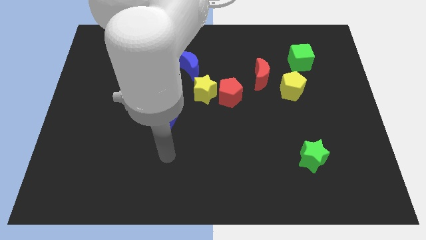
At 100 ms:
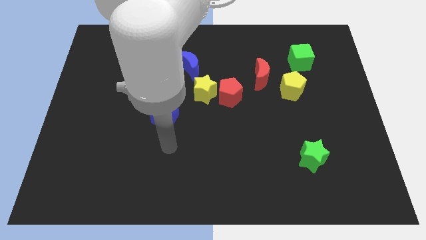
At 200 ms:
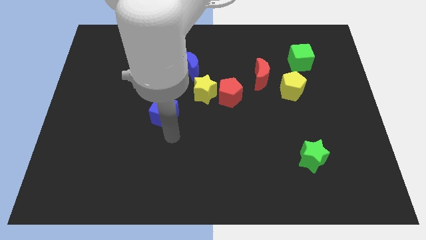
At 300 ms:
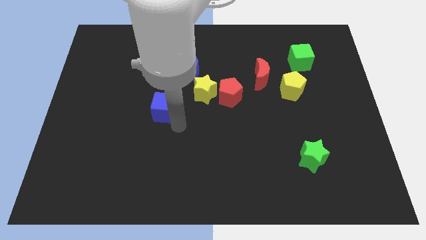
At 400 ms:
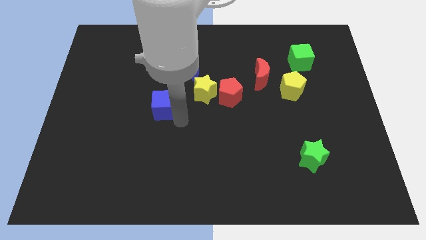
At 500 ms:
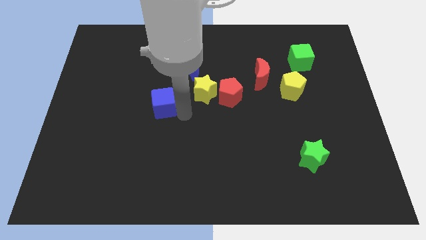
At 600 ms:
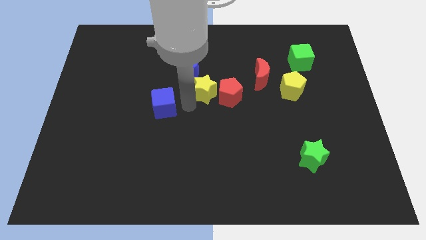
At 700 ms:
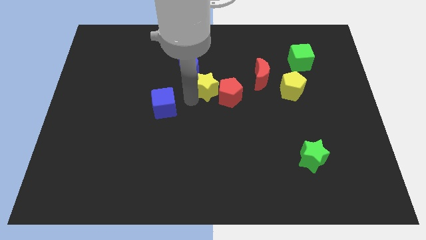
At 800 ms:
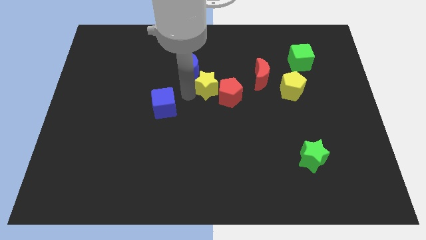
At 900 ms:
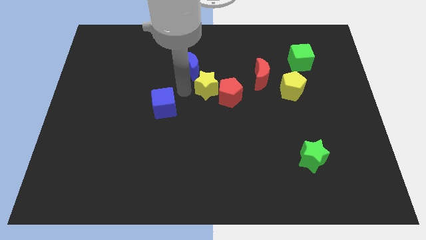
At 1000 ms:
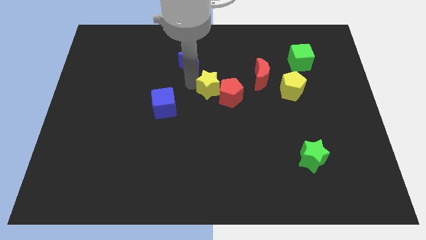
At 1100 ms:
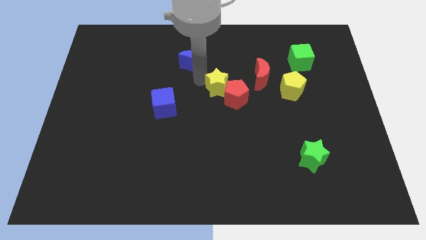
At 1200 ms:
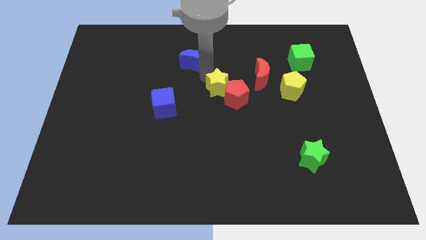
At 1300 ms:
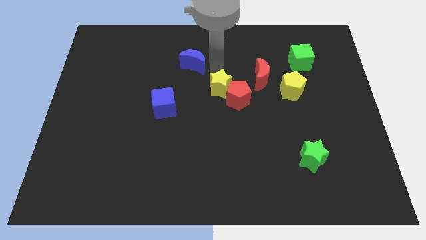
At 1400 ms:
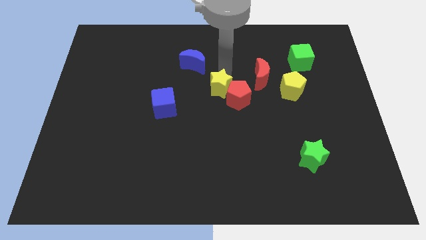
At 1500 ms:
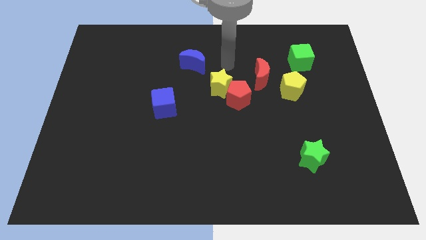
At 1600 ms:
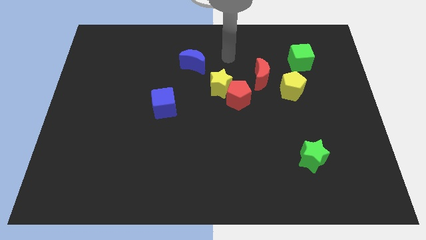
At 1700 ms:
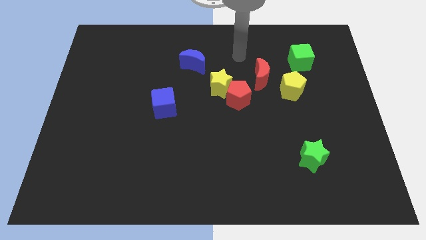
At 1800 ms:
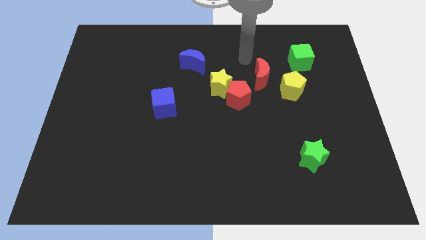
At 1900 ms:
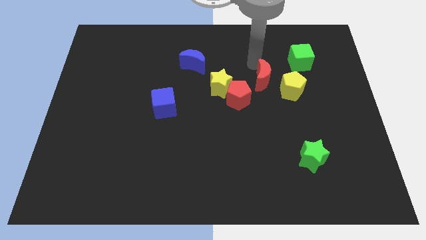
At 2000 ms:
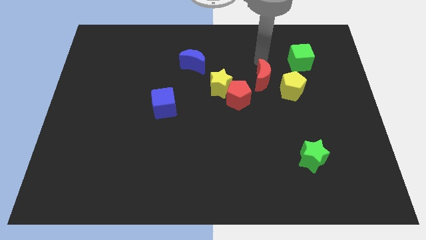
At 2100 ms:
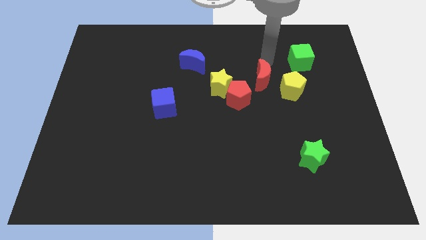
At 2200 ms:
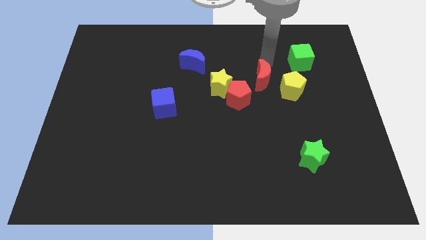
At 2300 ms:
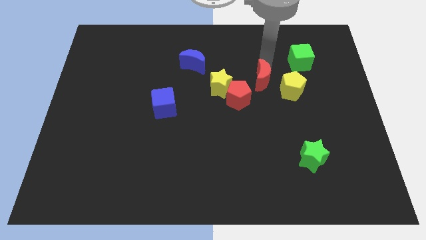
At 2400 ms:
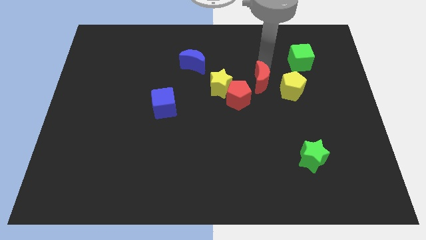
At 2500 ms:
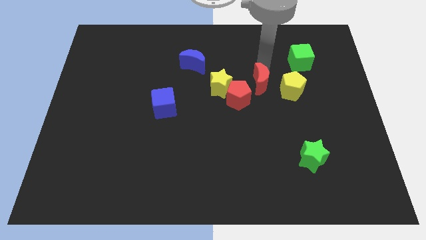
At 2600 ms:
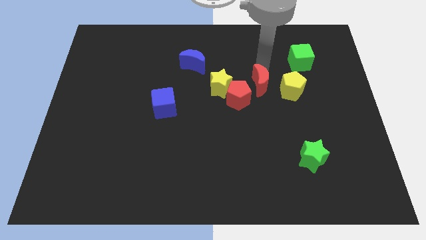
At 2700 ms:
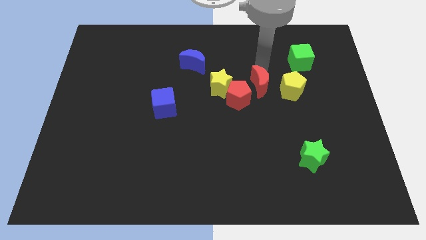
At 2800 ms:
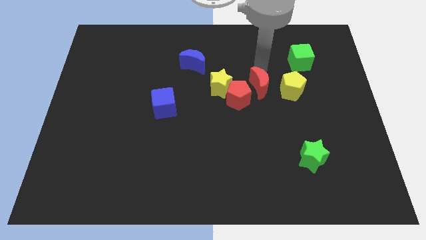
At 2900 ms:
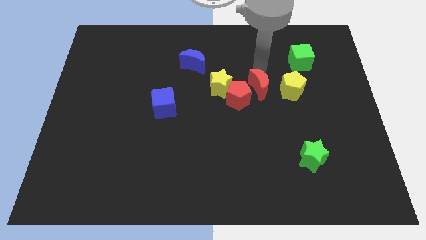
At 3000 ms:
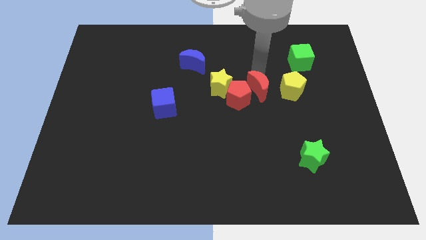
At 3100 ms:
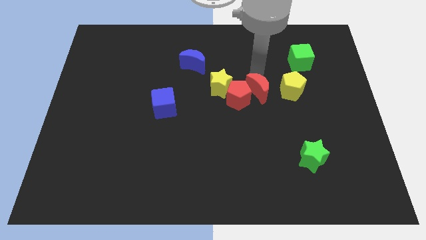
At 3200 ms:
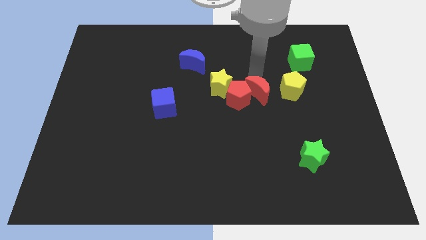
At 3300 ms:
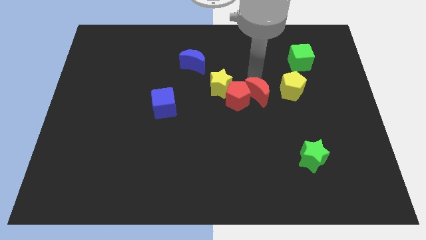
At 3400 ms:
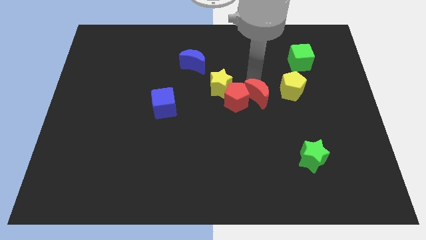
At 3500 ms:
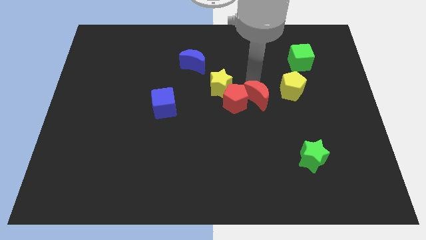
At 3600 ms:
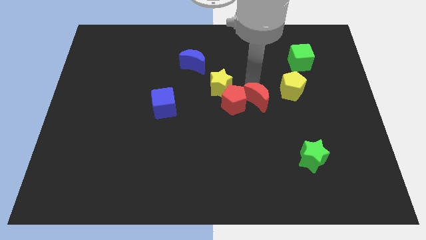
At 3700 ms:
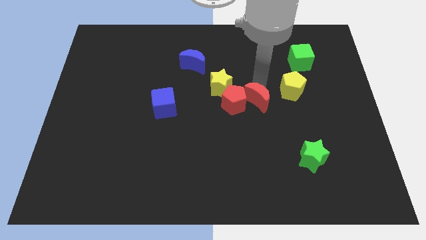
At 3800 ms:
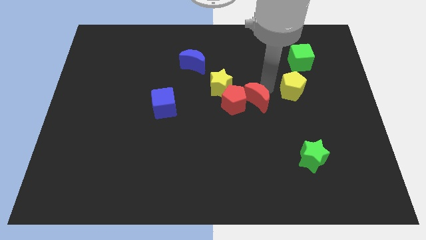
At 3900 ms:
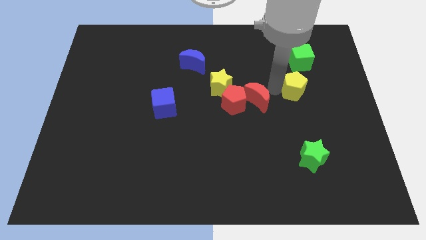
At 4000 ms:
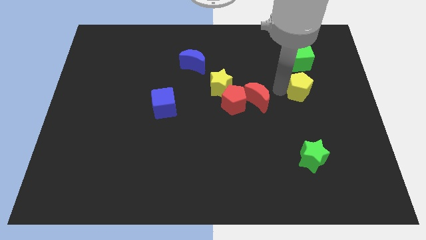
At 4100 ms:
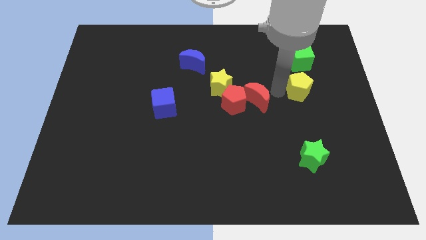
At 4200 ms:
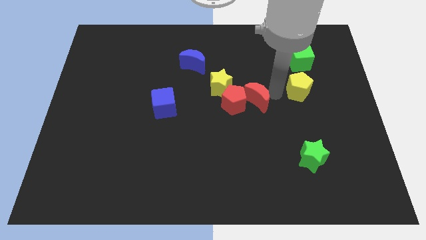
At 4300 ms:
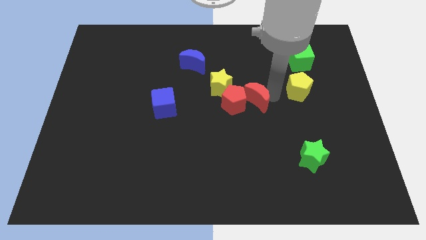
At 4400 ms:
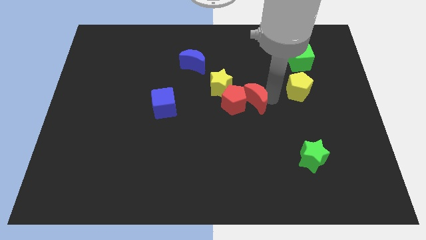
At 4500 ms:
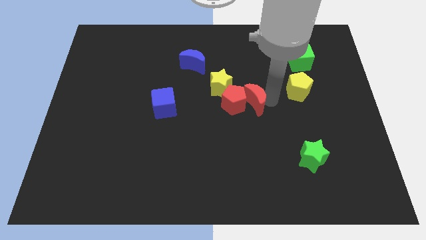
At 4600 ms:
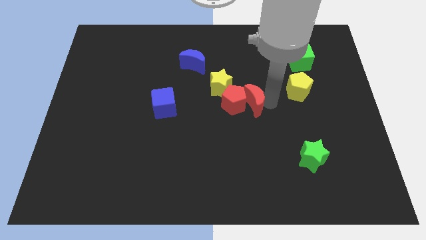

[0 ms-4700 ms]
push the red moon somewhat diagonally down and to the left

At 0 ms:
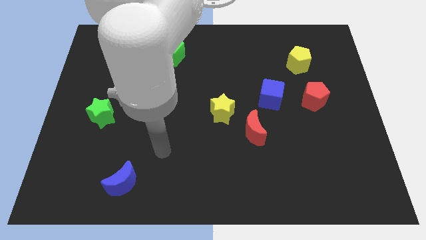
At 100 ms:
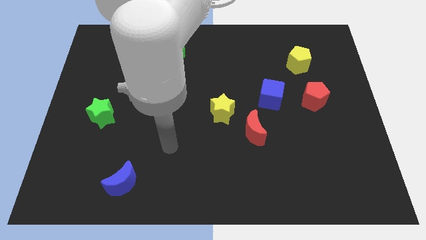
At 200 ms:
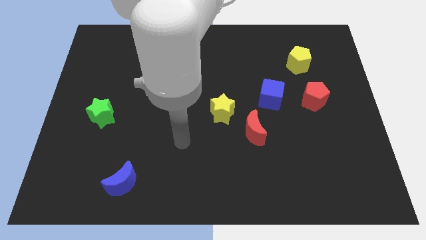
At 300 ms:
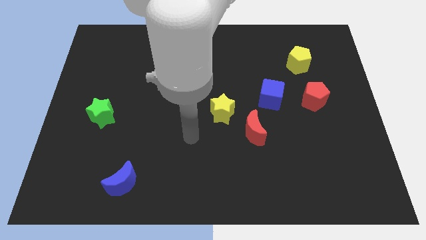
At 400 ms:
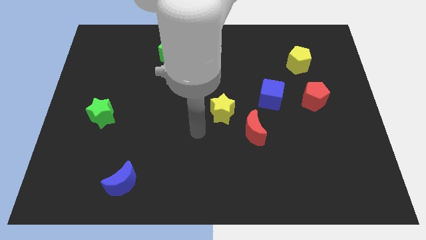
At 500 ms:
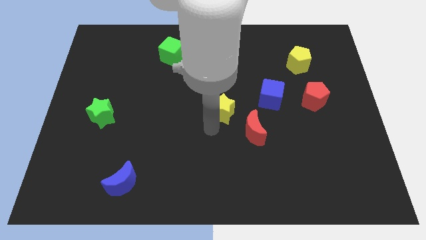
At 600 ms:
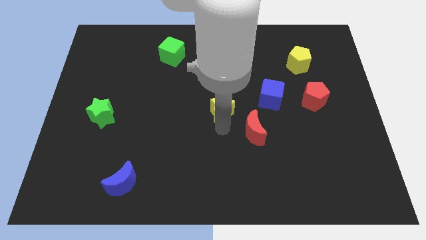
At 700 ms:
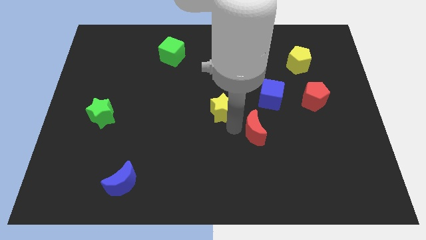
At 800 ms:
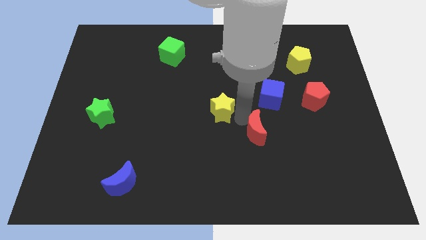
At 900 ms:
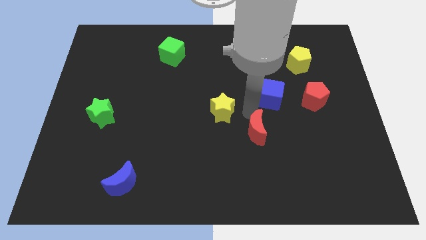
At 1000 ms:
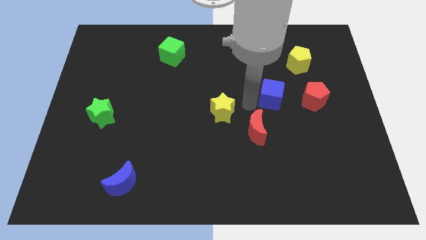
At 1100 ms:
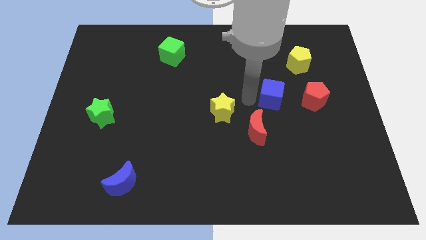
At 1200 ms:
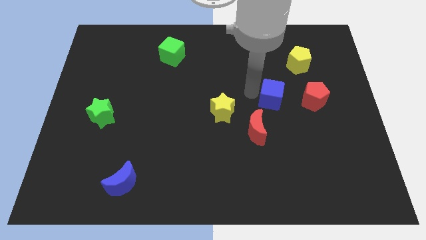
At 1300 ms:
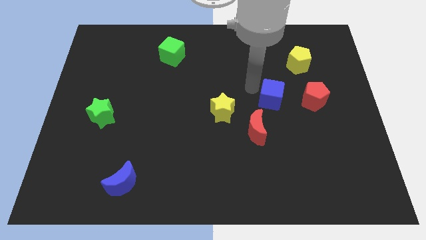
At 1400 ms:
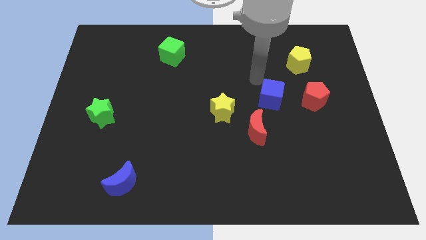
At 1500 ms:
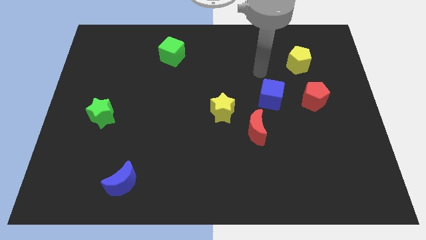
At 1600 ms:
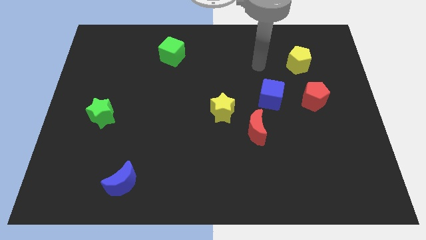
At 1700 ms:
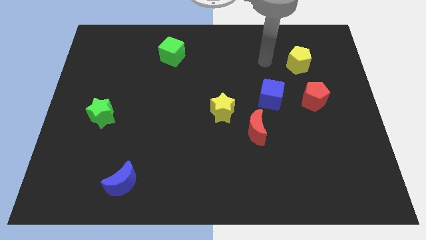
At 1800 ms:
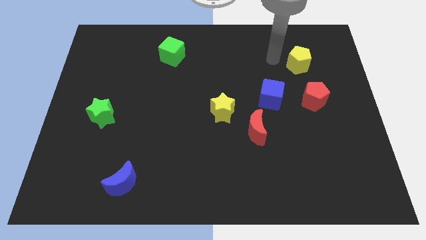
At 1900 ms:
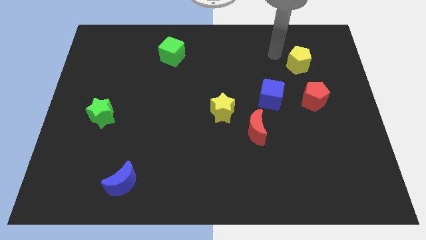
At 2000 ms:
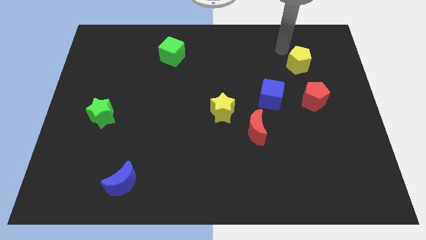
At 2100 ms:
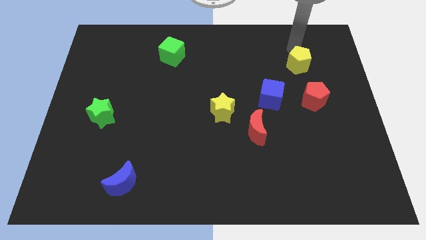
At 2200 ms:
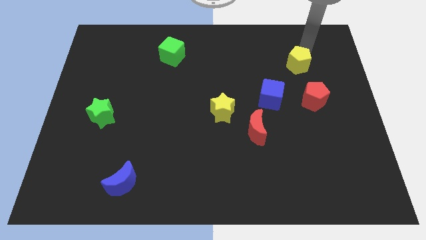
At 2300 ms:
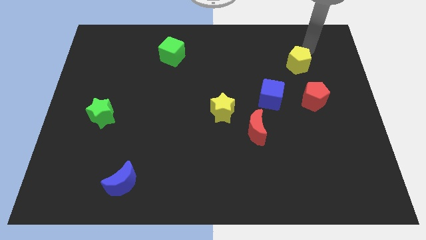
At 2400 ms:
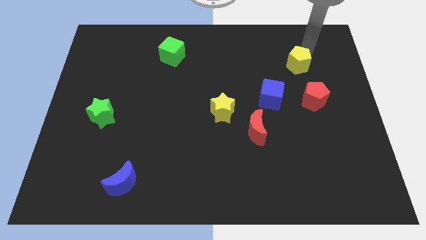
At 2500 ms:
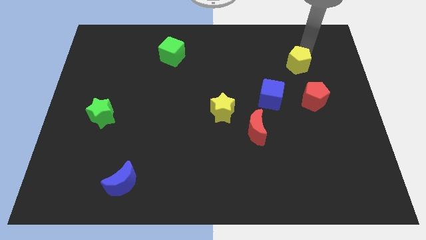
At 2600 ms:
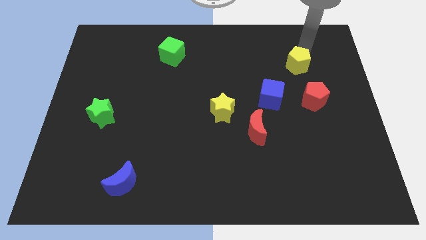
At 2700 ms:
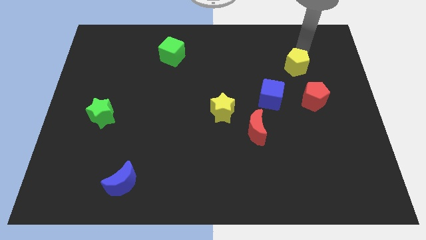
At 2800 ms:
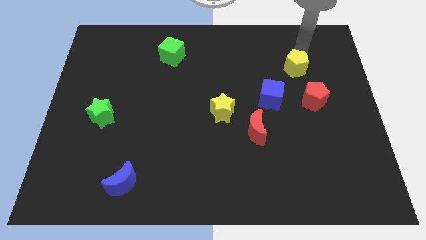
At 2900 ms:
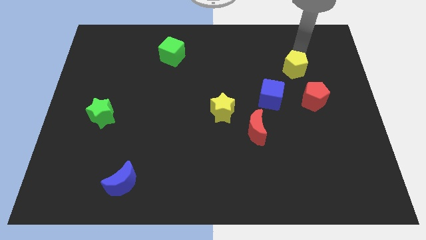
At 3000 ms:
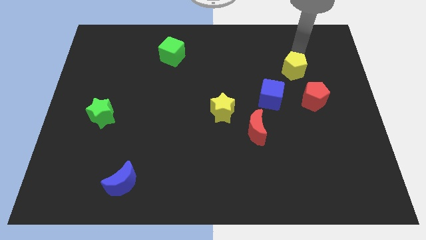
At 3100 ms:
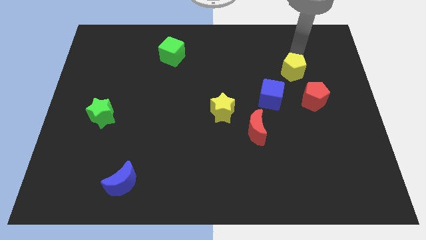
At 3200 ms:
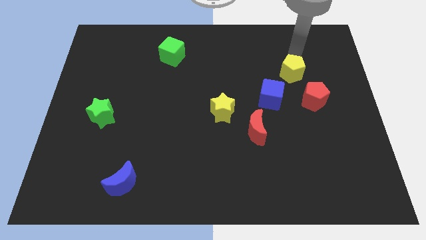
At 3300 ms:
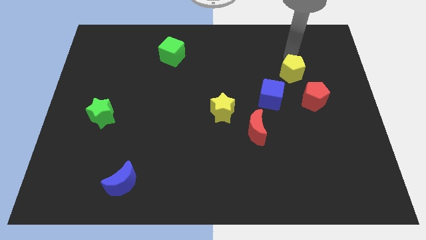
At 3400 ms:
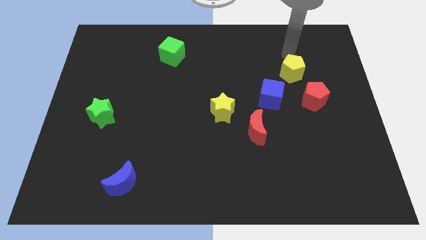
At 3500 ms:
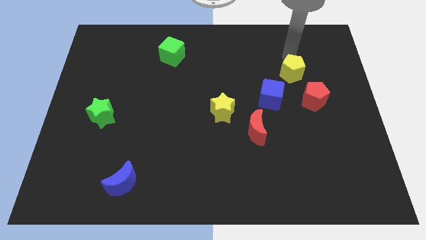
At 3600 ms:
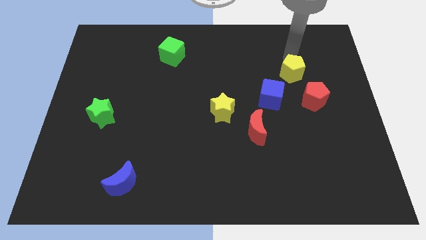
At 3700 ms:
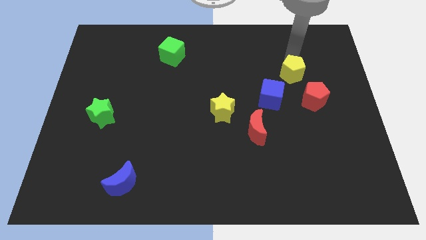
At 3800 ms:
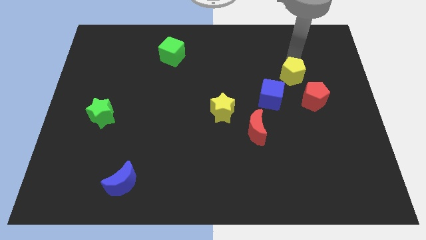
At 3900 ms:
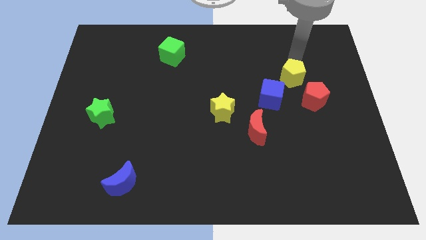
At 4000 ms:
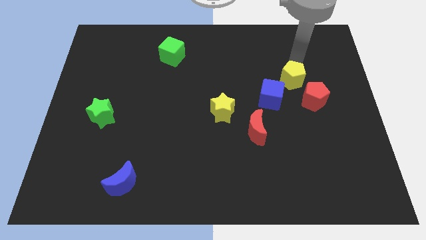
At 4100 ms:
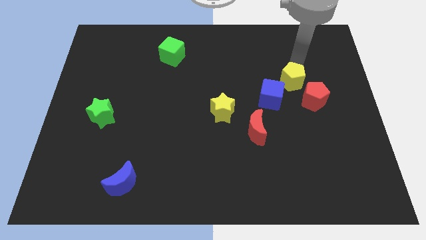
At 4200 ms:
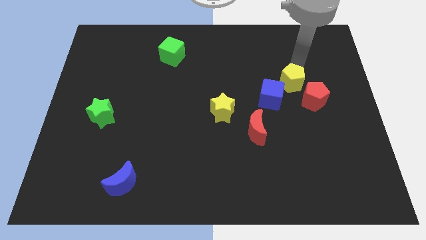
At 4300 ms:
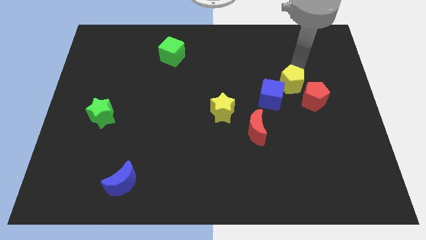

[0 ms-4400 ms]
move the yellow pentagon a little bit downwards
